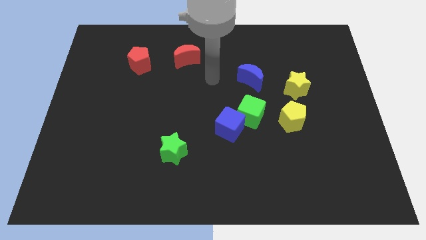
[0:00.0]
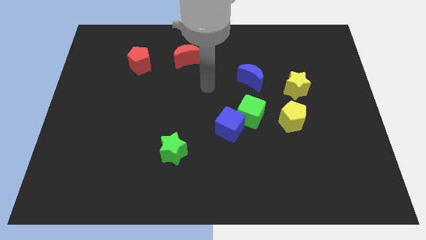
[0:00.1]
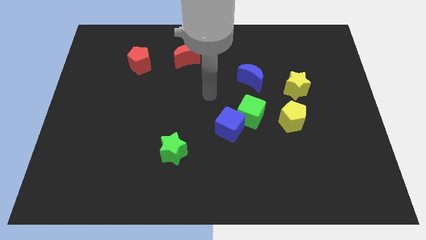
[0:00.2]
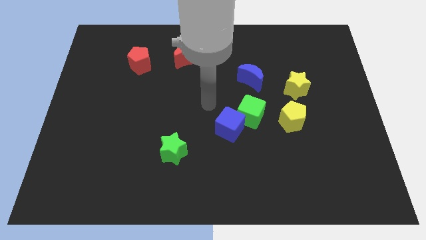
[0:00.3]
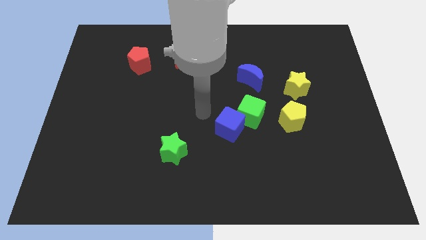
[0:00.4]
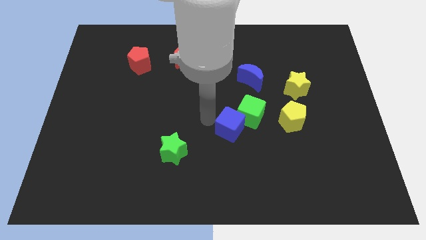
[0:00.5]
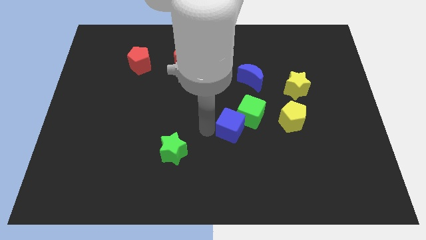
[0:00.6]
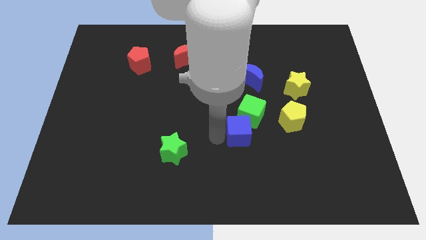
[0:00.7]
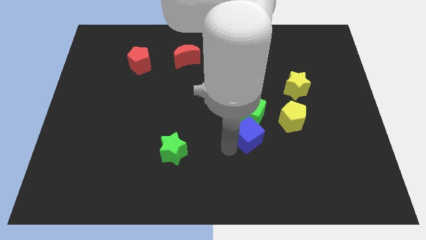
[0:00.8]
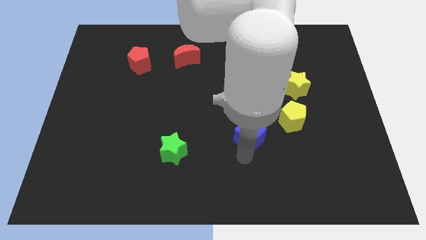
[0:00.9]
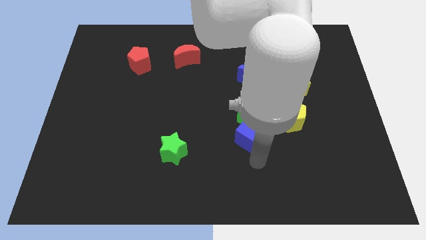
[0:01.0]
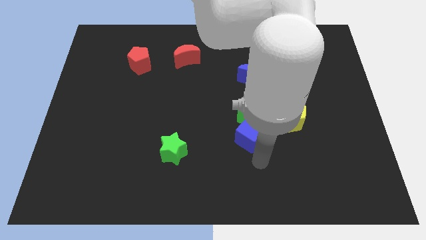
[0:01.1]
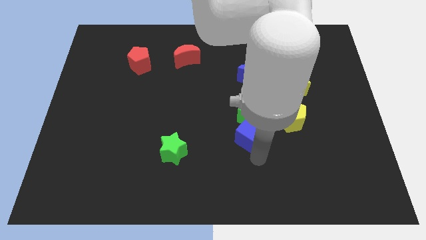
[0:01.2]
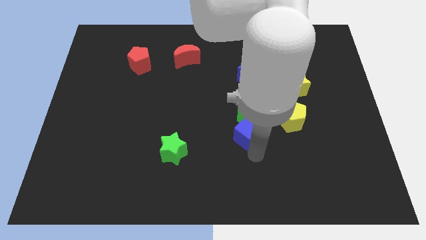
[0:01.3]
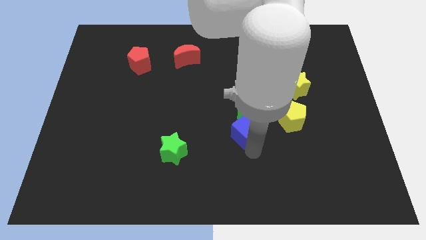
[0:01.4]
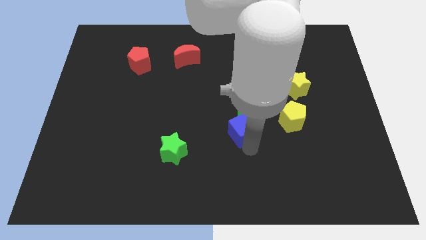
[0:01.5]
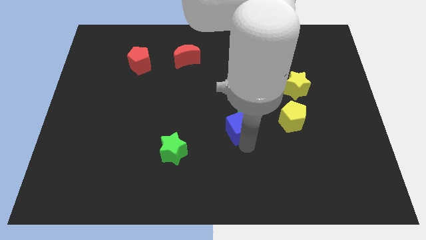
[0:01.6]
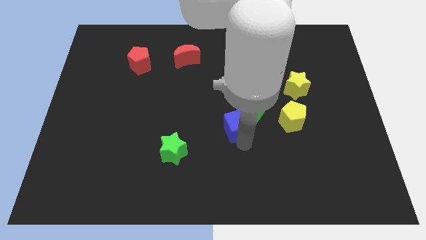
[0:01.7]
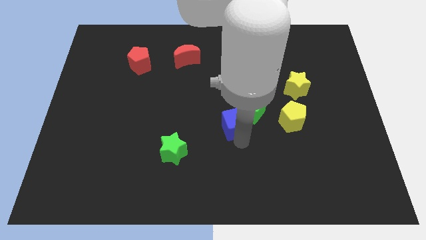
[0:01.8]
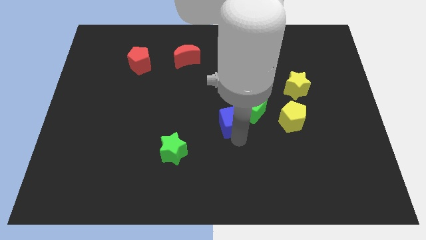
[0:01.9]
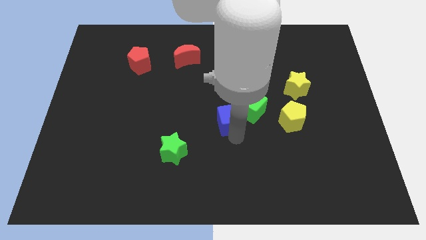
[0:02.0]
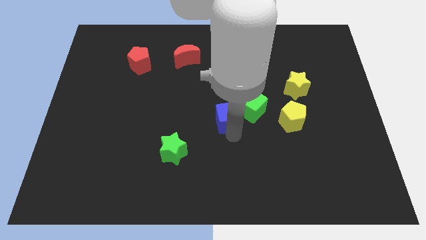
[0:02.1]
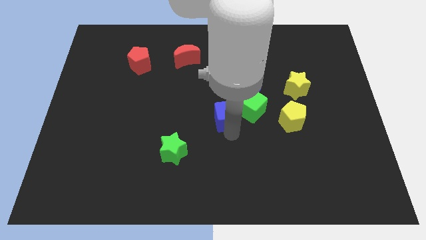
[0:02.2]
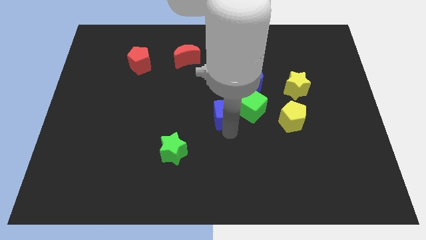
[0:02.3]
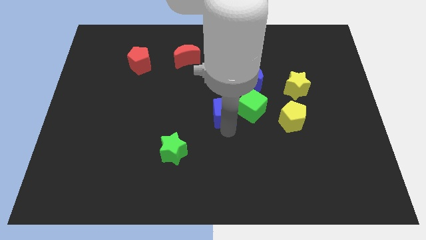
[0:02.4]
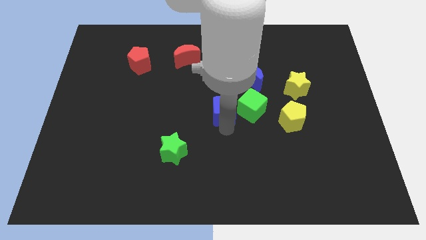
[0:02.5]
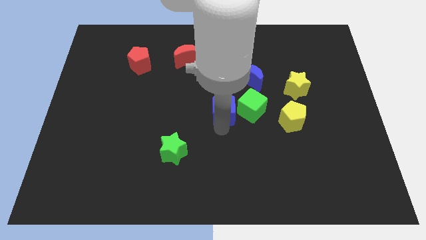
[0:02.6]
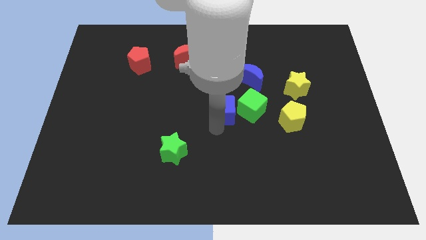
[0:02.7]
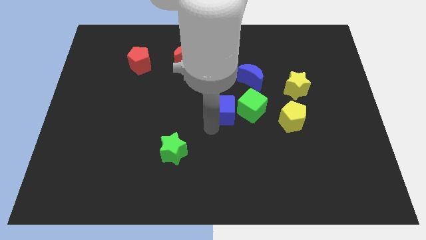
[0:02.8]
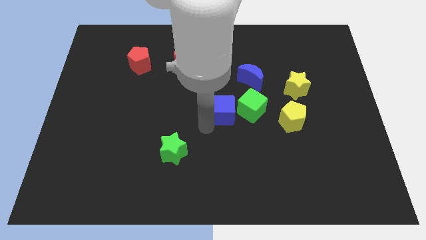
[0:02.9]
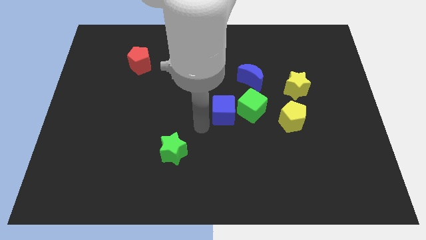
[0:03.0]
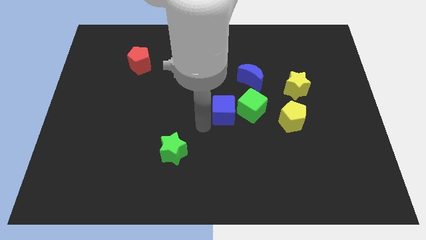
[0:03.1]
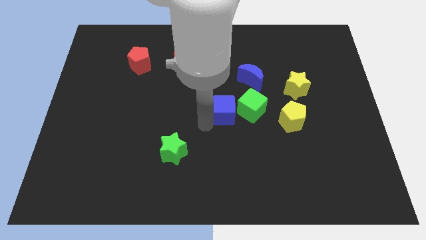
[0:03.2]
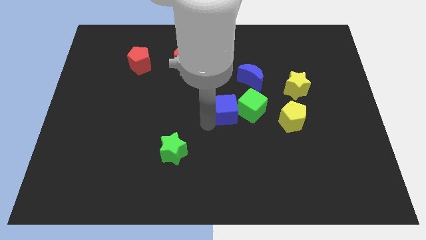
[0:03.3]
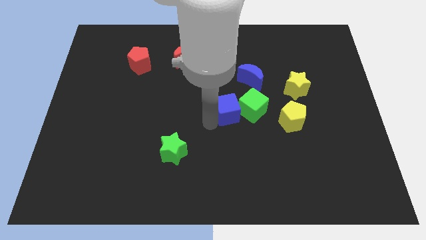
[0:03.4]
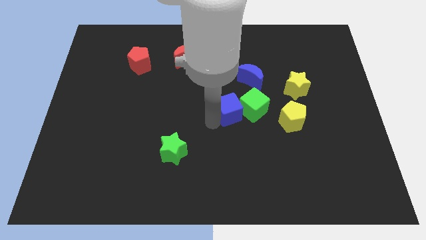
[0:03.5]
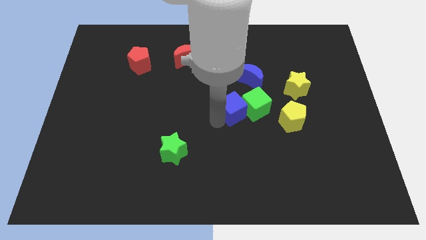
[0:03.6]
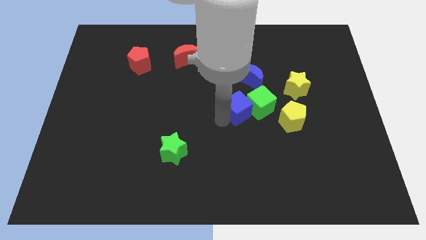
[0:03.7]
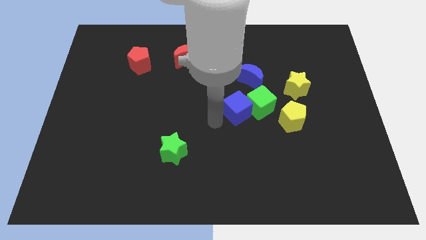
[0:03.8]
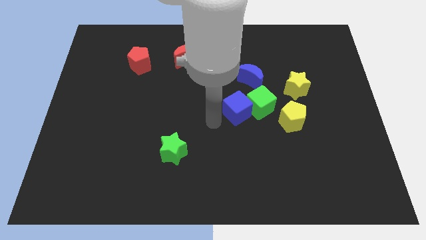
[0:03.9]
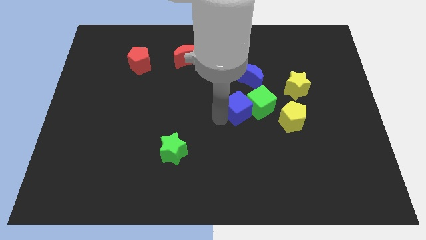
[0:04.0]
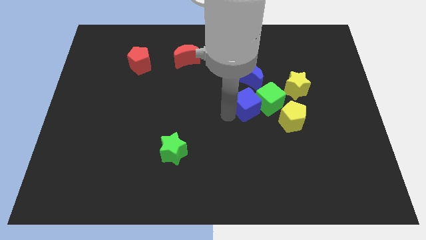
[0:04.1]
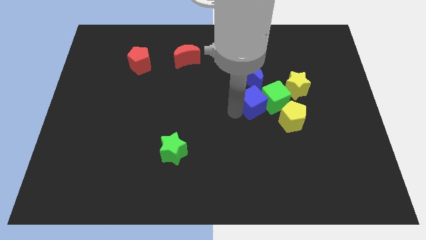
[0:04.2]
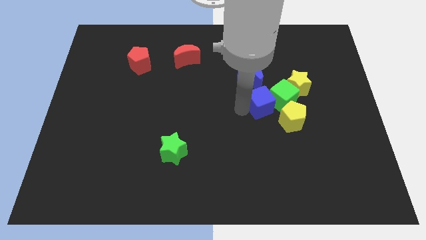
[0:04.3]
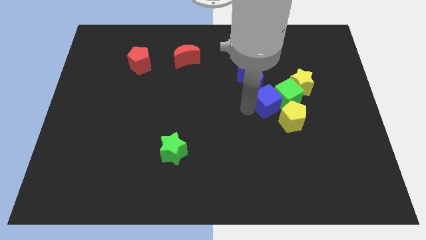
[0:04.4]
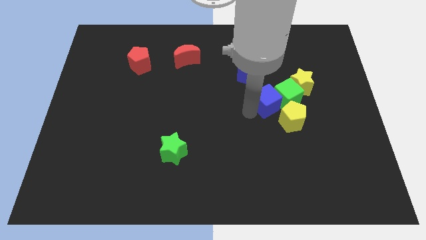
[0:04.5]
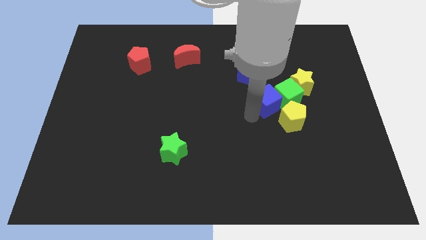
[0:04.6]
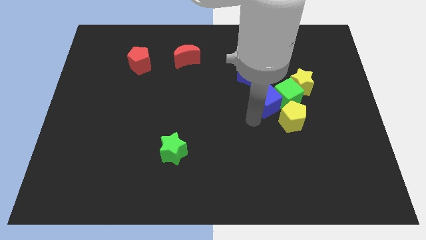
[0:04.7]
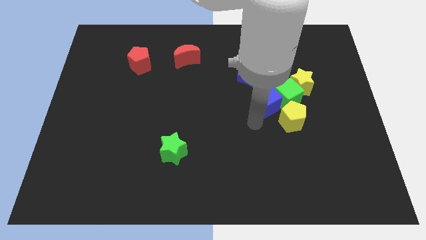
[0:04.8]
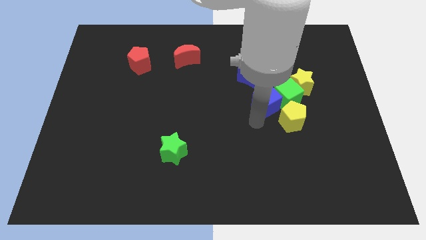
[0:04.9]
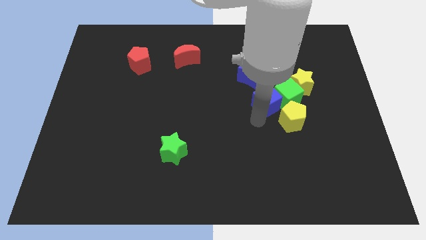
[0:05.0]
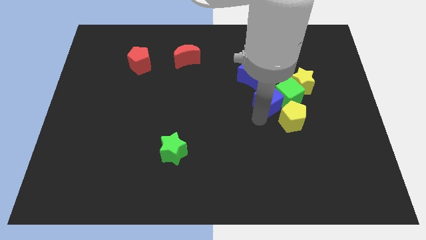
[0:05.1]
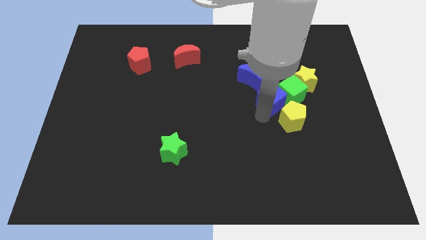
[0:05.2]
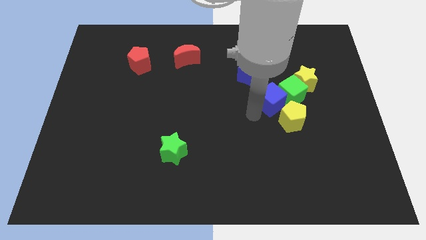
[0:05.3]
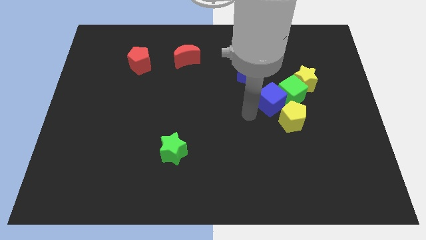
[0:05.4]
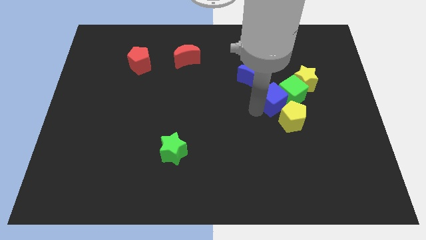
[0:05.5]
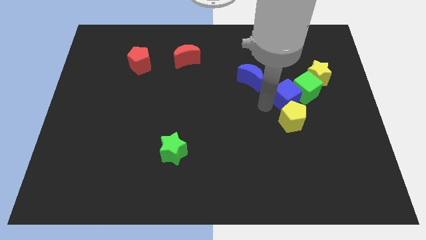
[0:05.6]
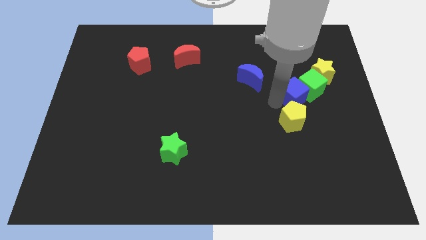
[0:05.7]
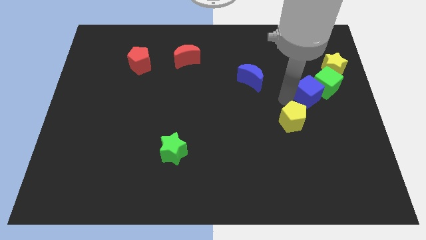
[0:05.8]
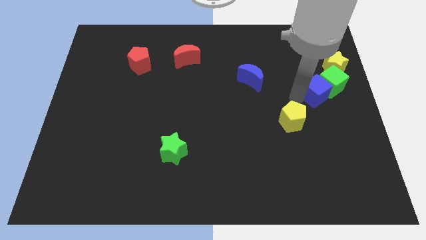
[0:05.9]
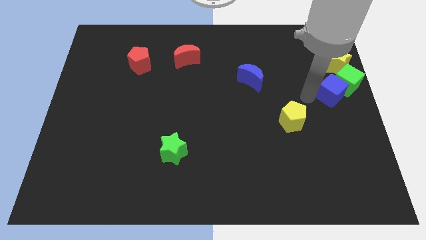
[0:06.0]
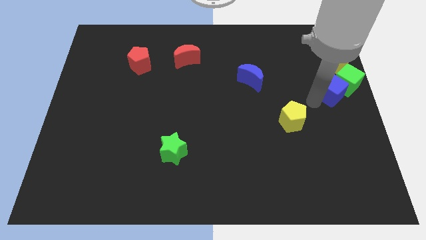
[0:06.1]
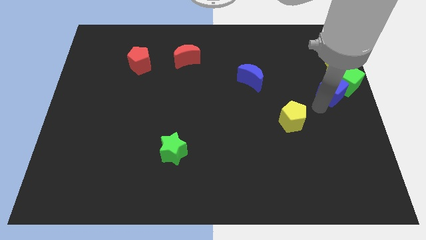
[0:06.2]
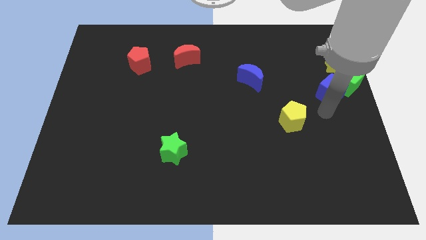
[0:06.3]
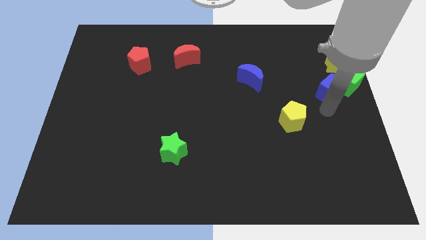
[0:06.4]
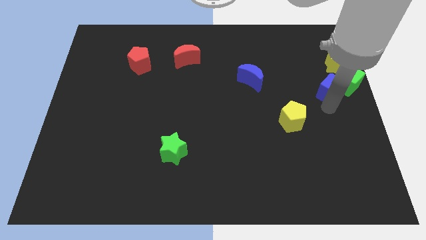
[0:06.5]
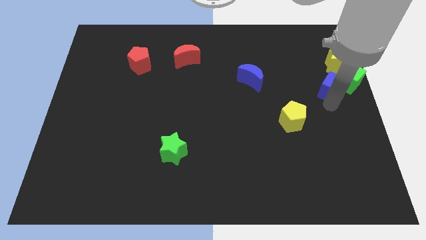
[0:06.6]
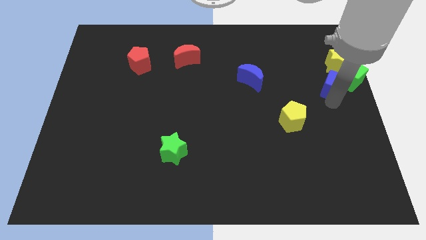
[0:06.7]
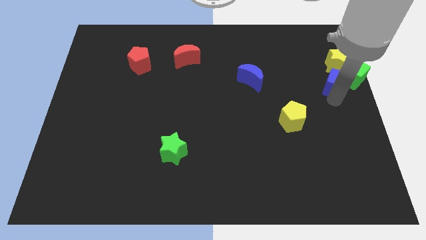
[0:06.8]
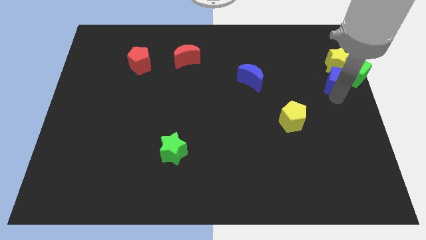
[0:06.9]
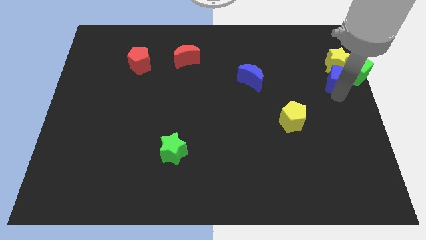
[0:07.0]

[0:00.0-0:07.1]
move the blue cube towards the yellow star

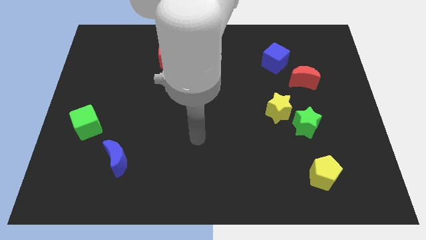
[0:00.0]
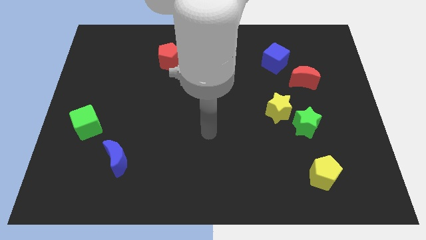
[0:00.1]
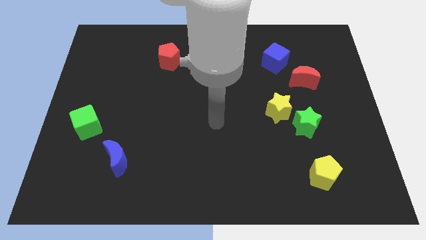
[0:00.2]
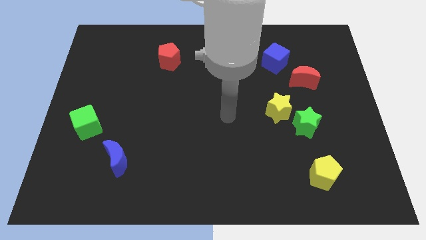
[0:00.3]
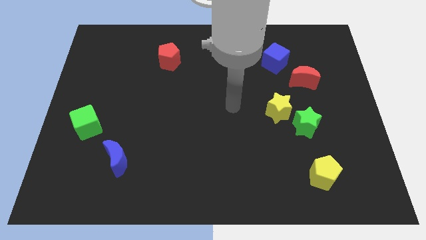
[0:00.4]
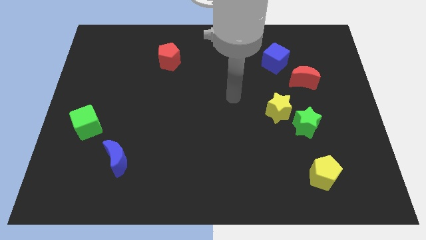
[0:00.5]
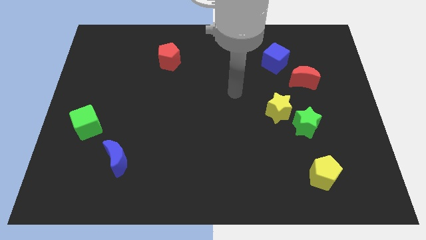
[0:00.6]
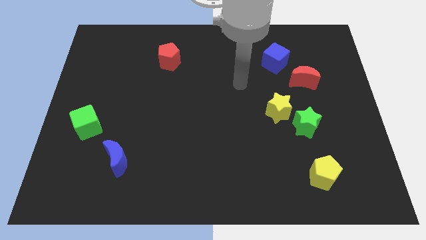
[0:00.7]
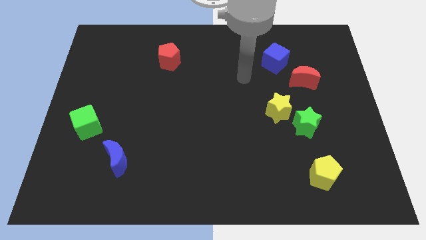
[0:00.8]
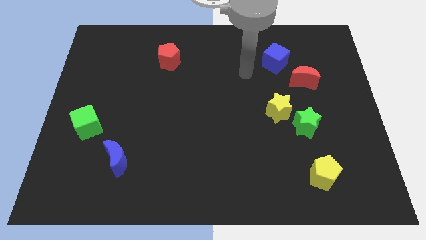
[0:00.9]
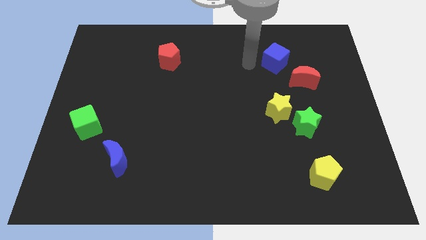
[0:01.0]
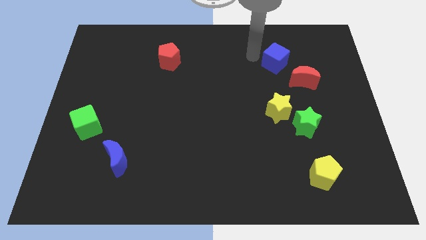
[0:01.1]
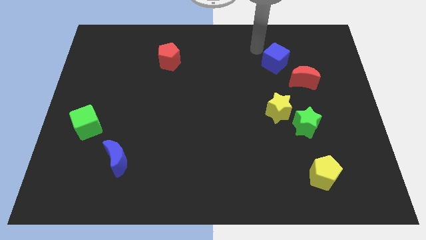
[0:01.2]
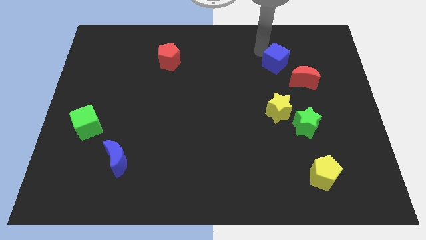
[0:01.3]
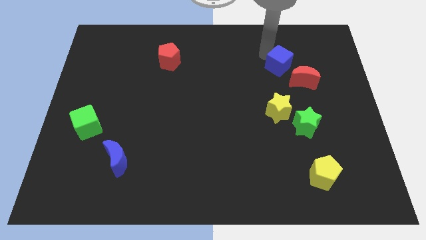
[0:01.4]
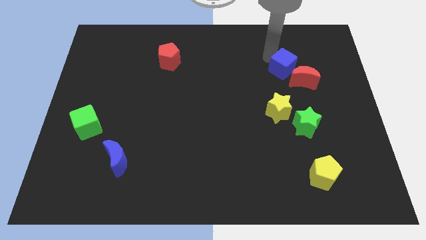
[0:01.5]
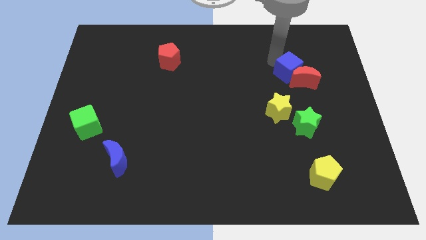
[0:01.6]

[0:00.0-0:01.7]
push the blue cube towards the red moon
